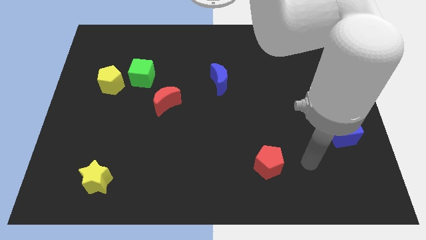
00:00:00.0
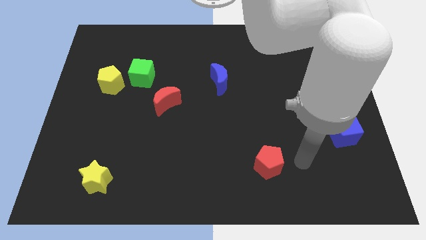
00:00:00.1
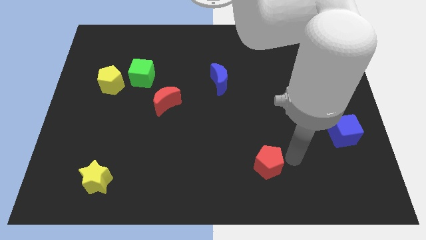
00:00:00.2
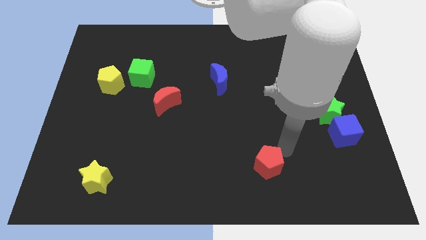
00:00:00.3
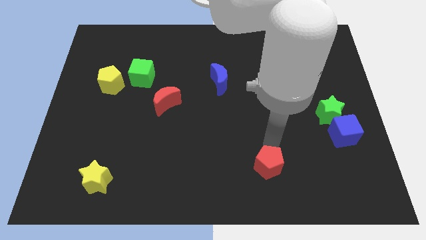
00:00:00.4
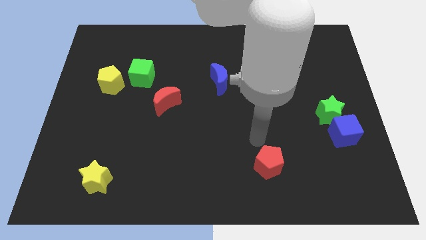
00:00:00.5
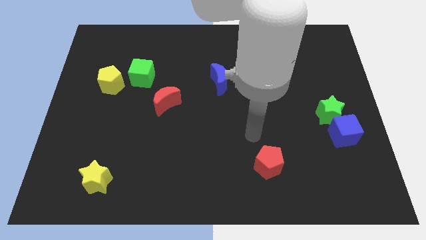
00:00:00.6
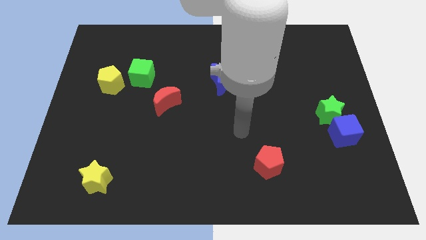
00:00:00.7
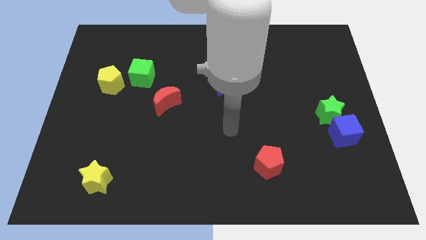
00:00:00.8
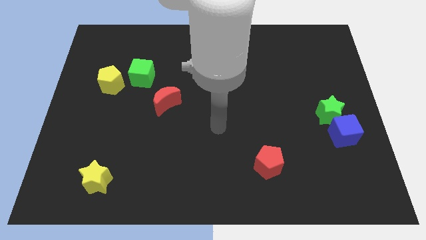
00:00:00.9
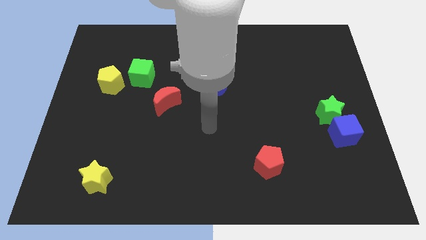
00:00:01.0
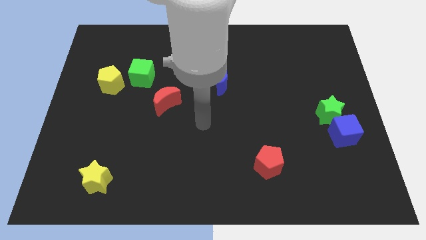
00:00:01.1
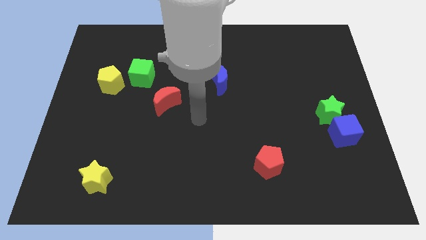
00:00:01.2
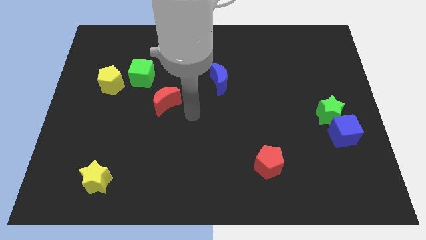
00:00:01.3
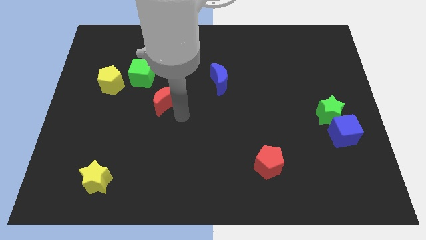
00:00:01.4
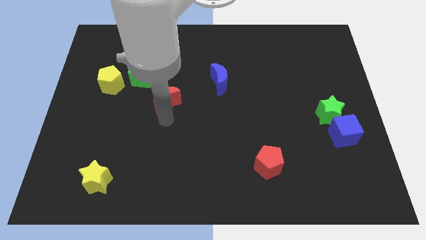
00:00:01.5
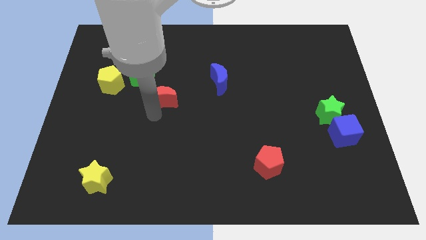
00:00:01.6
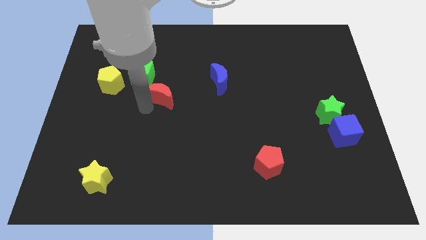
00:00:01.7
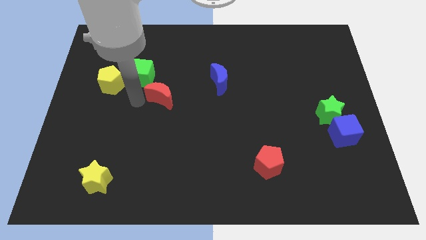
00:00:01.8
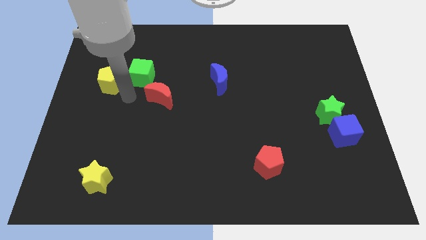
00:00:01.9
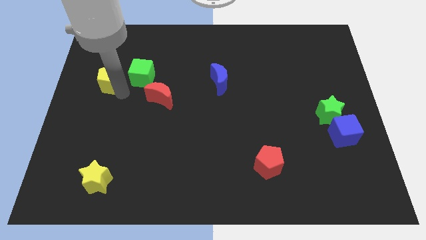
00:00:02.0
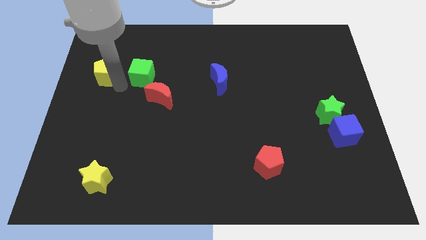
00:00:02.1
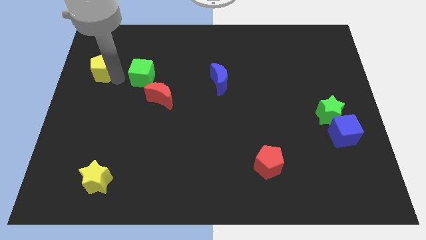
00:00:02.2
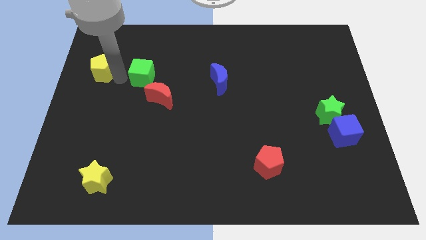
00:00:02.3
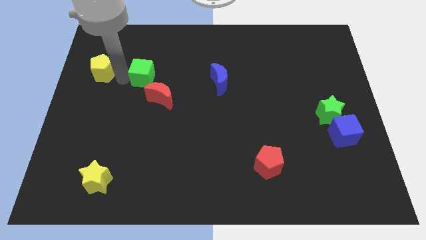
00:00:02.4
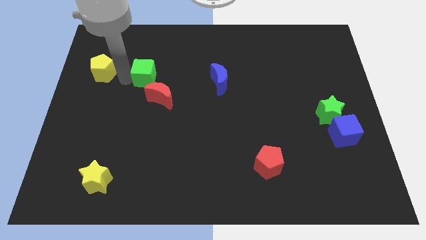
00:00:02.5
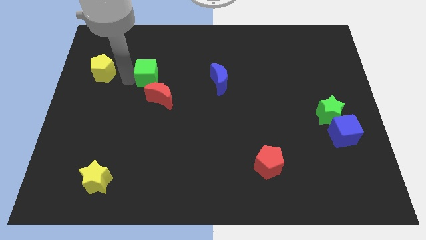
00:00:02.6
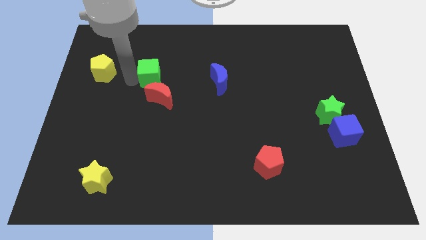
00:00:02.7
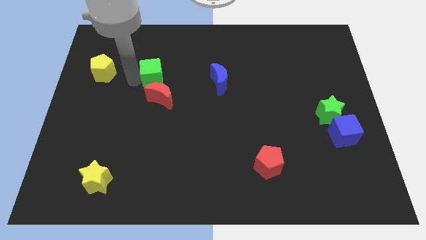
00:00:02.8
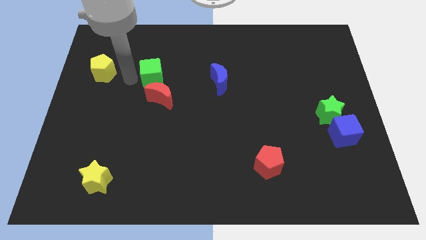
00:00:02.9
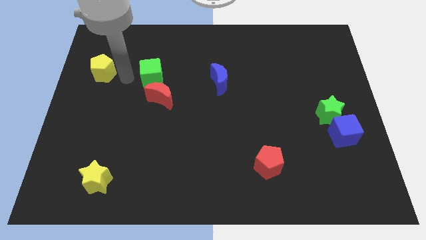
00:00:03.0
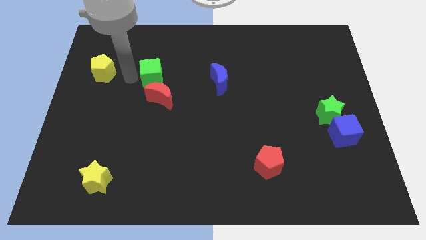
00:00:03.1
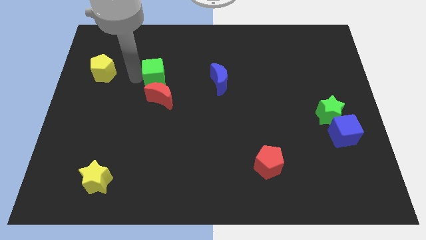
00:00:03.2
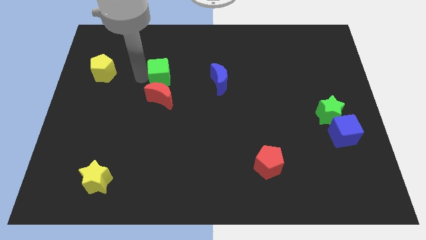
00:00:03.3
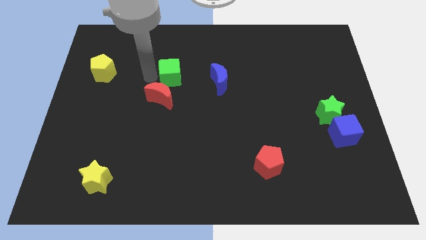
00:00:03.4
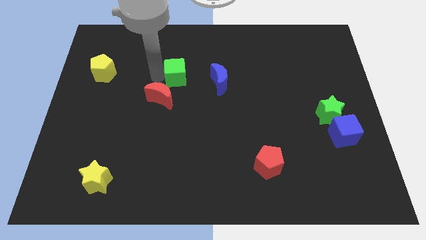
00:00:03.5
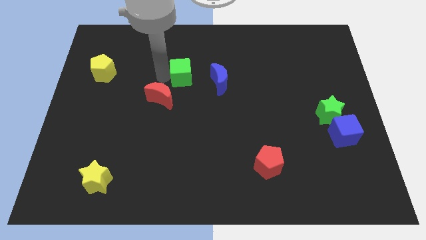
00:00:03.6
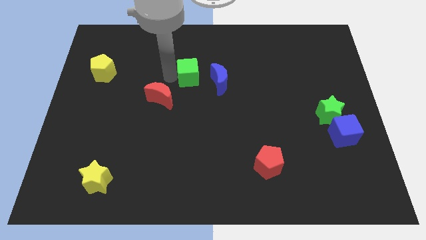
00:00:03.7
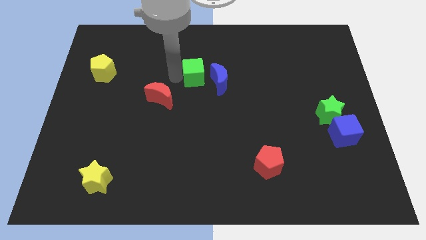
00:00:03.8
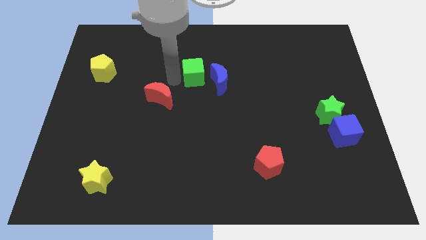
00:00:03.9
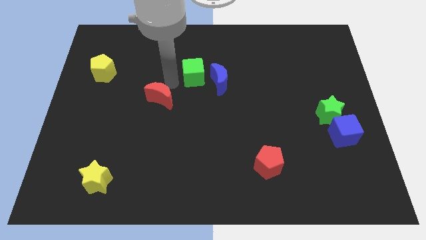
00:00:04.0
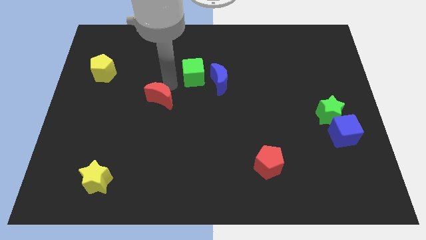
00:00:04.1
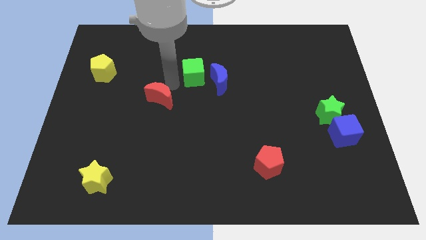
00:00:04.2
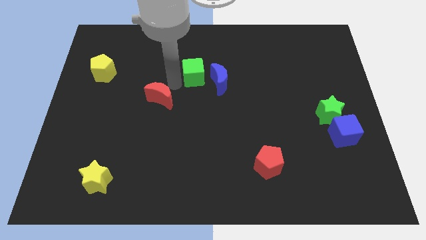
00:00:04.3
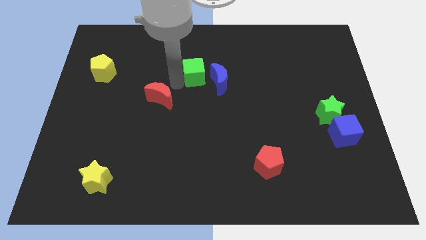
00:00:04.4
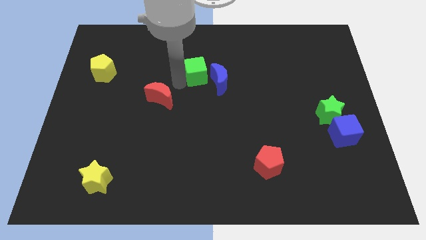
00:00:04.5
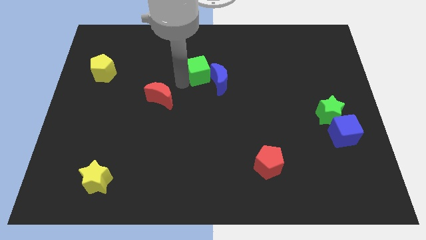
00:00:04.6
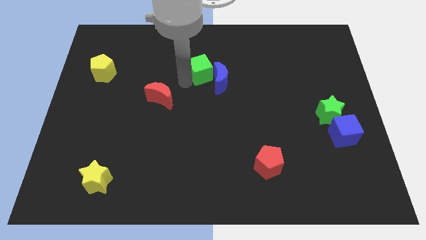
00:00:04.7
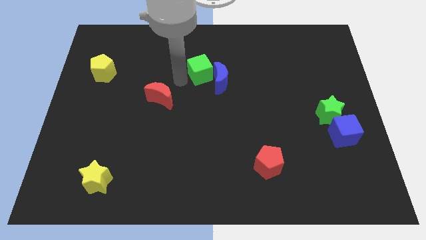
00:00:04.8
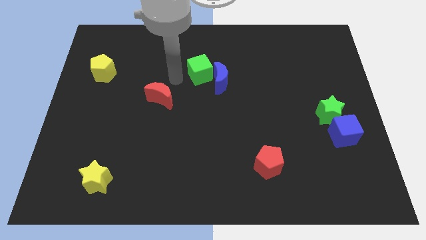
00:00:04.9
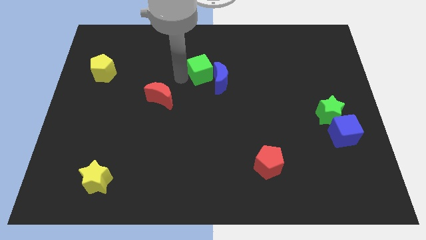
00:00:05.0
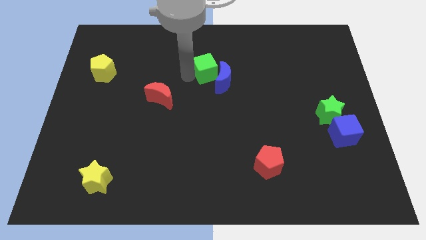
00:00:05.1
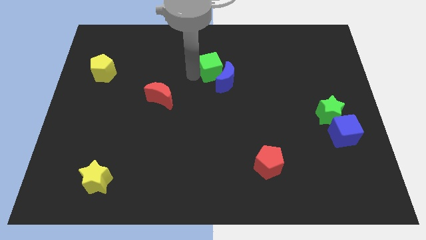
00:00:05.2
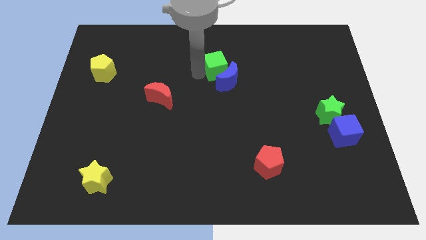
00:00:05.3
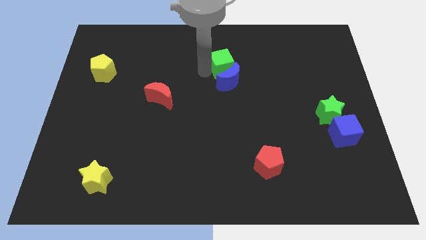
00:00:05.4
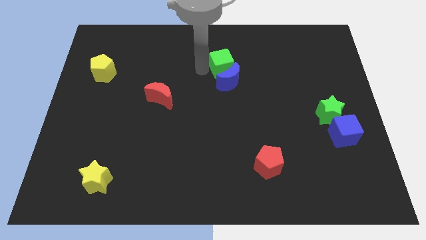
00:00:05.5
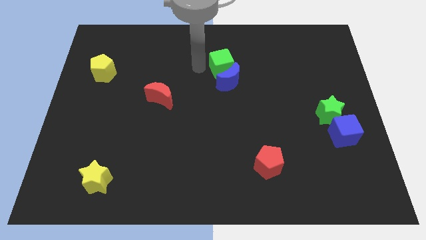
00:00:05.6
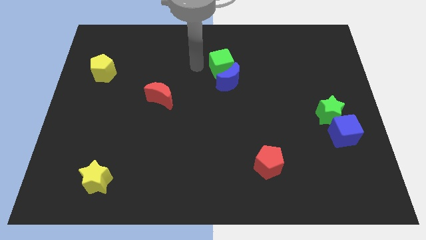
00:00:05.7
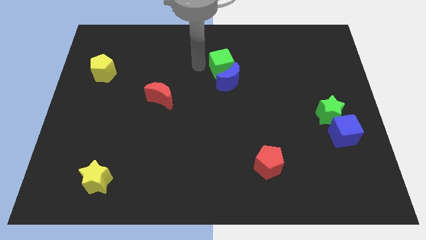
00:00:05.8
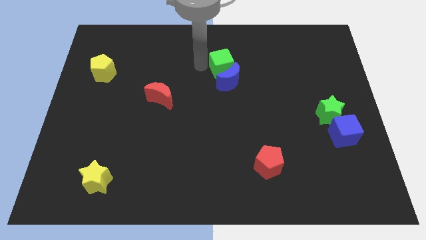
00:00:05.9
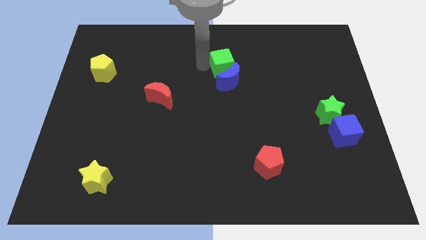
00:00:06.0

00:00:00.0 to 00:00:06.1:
slide the green cube to the right

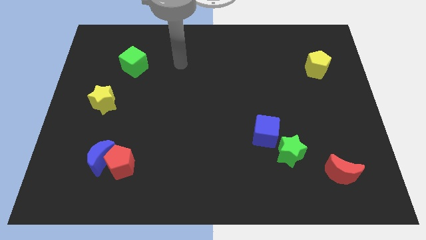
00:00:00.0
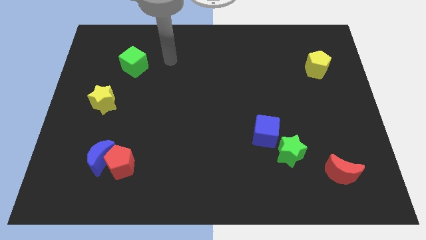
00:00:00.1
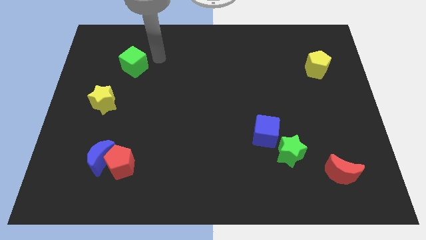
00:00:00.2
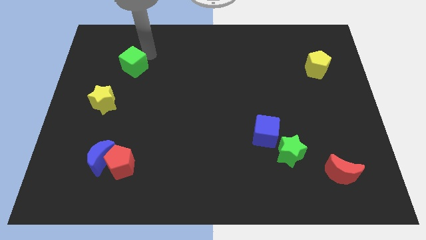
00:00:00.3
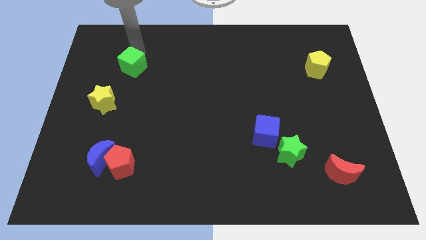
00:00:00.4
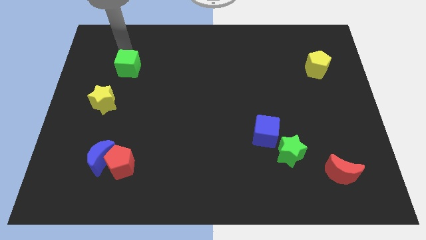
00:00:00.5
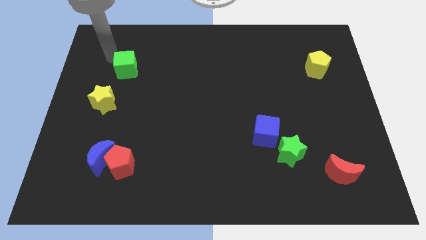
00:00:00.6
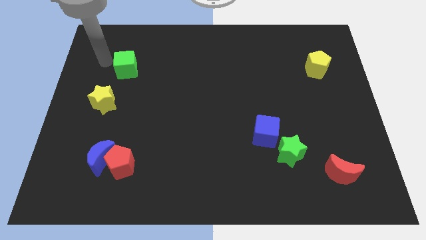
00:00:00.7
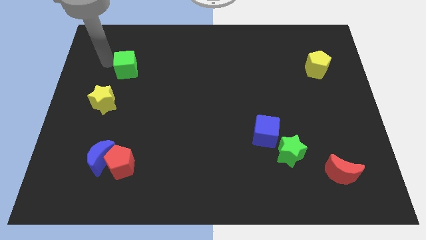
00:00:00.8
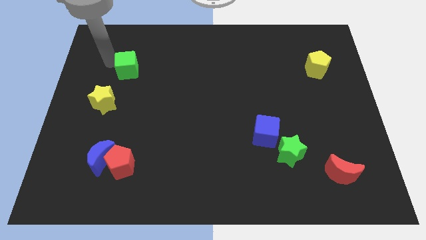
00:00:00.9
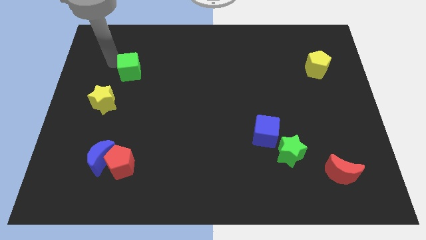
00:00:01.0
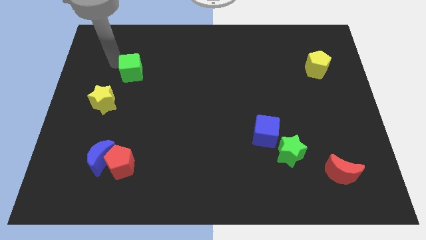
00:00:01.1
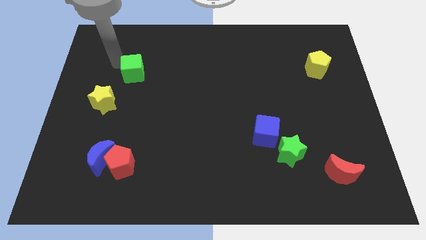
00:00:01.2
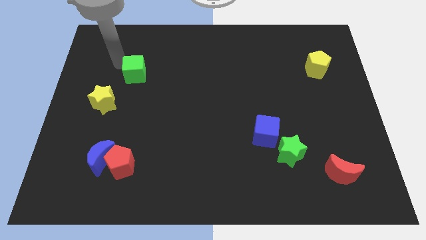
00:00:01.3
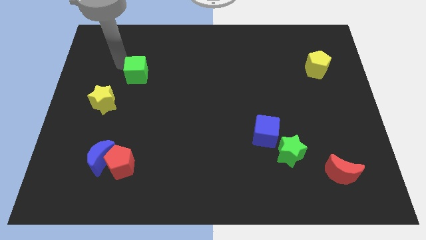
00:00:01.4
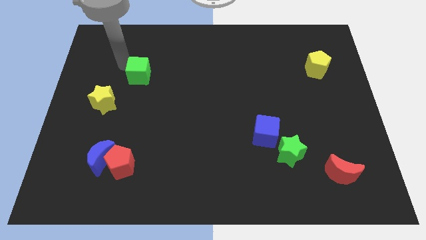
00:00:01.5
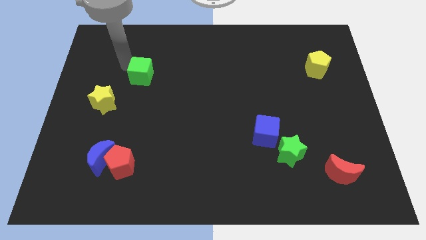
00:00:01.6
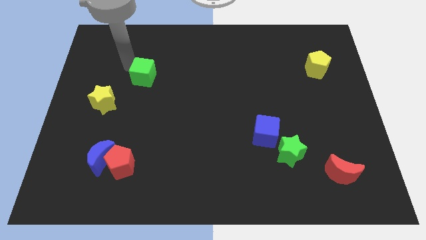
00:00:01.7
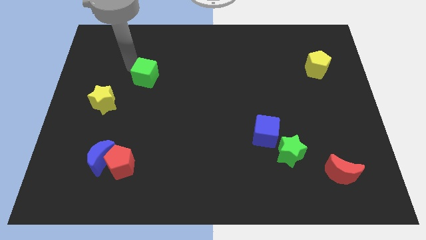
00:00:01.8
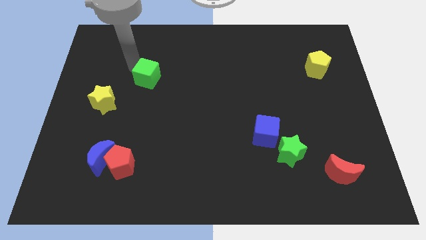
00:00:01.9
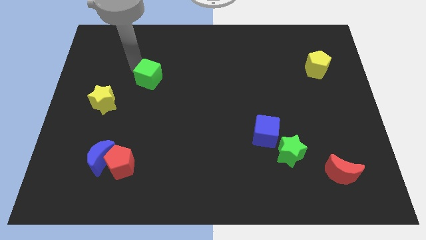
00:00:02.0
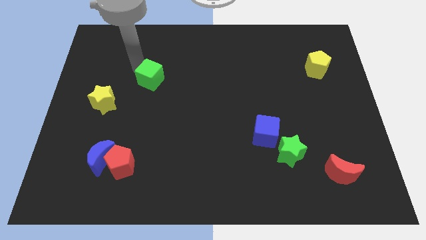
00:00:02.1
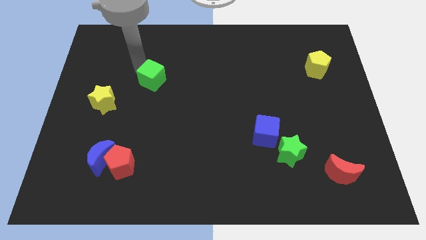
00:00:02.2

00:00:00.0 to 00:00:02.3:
slightly slide the green cube down and right diagonally
